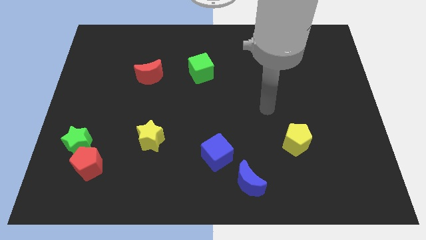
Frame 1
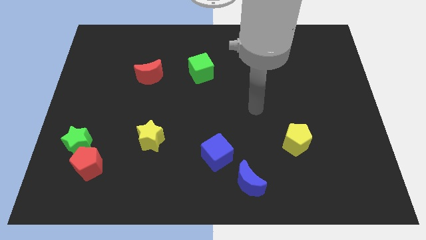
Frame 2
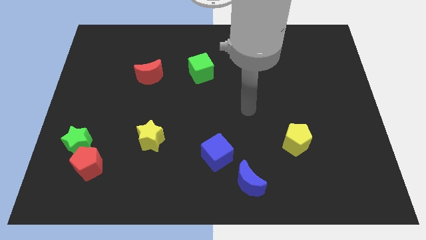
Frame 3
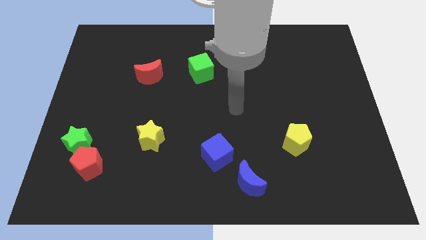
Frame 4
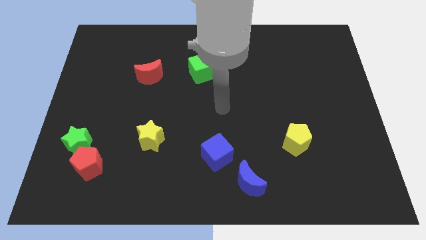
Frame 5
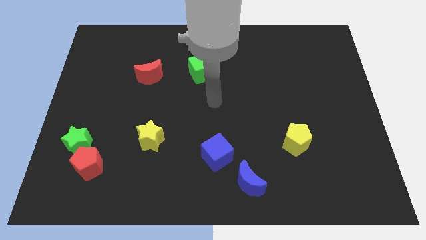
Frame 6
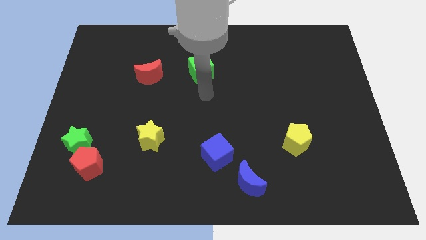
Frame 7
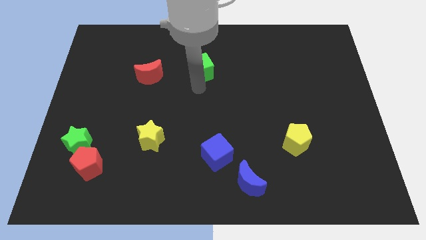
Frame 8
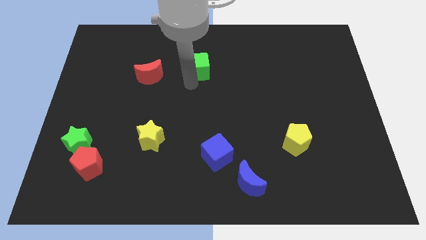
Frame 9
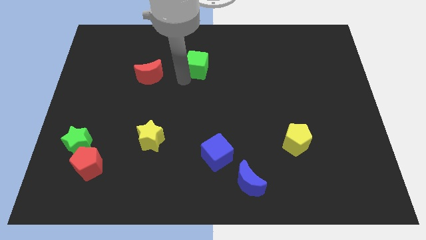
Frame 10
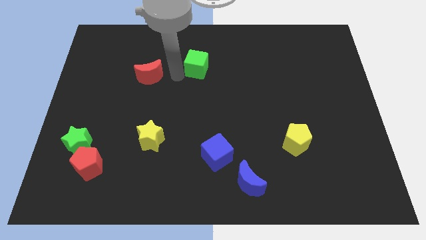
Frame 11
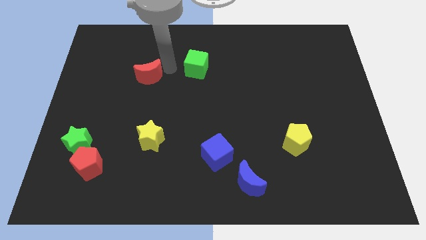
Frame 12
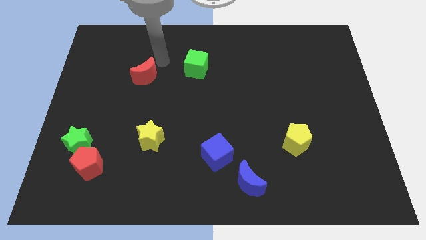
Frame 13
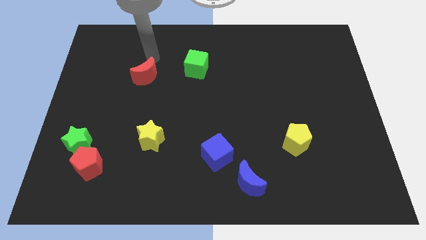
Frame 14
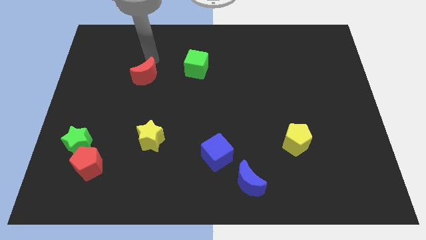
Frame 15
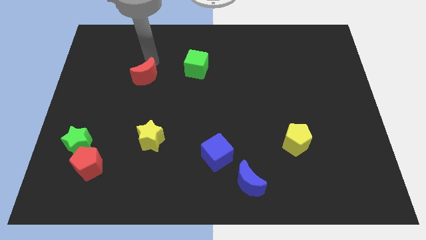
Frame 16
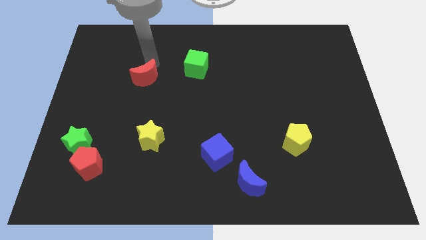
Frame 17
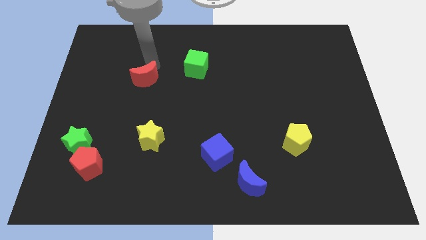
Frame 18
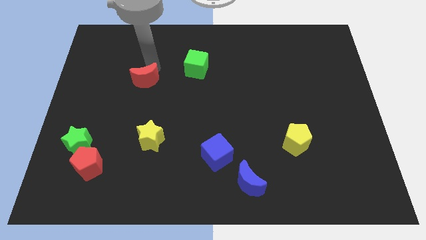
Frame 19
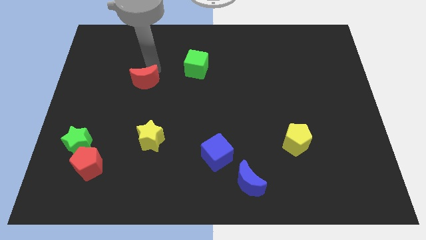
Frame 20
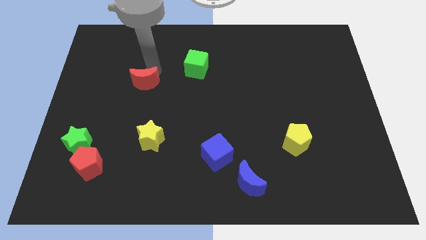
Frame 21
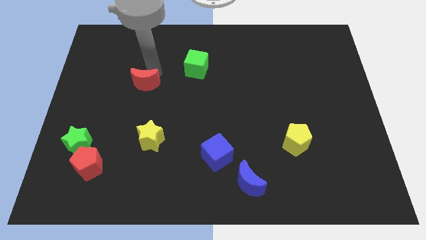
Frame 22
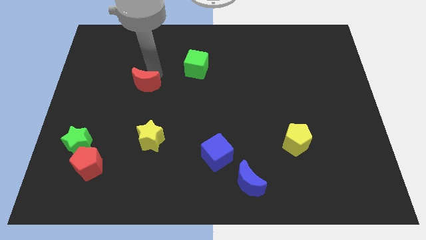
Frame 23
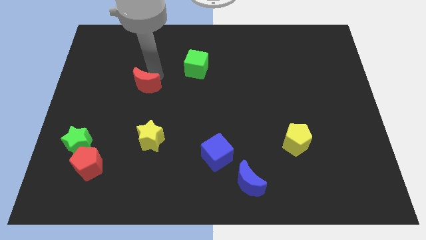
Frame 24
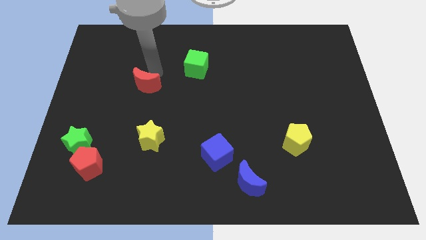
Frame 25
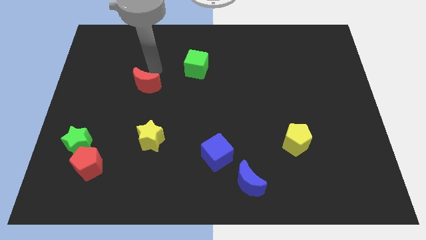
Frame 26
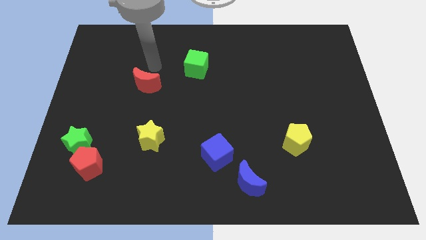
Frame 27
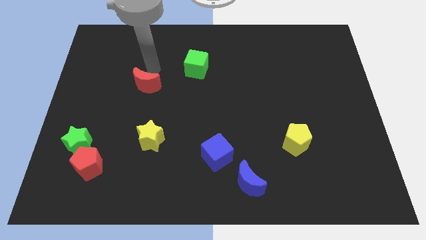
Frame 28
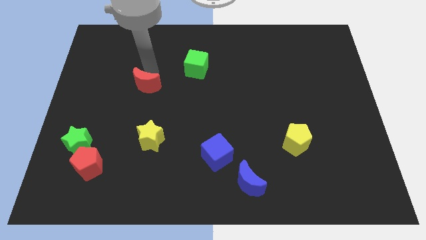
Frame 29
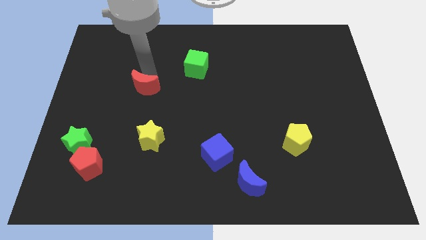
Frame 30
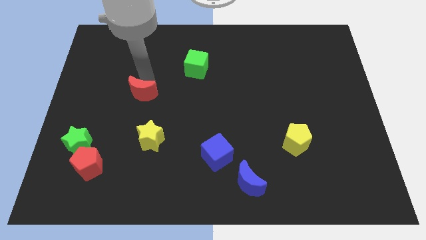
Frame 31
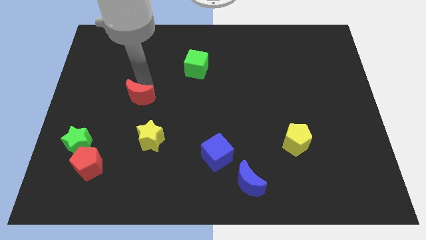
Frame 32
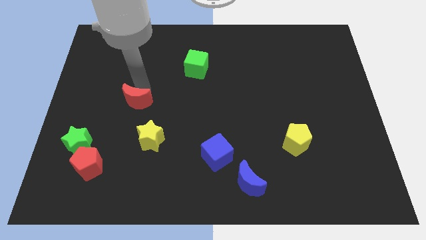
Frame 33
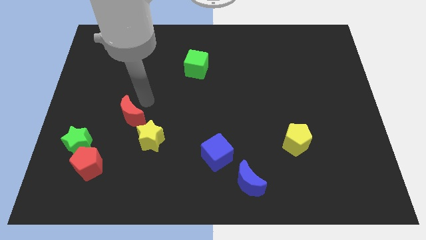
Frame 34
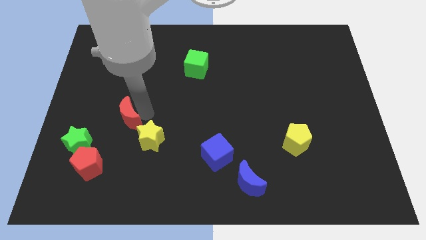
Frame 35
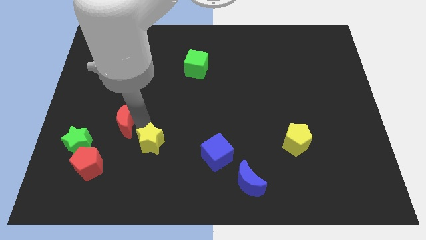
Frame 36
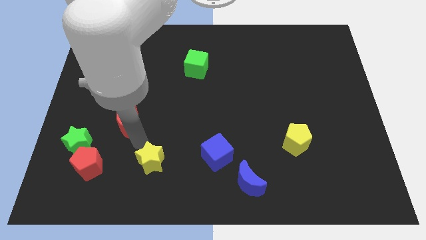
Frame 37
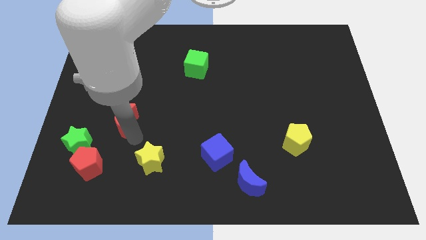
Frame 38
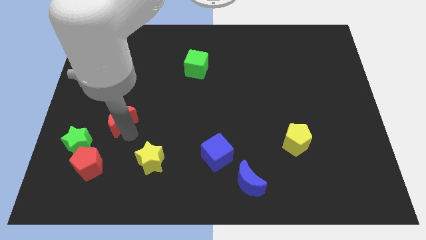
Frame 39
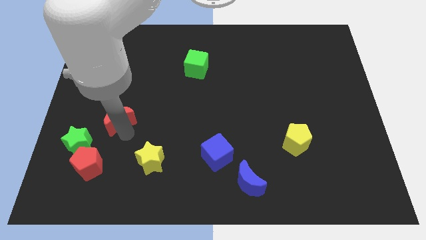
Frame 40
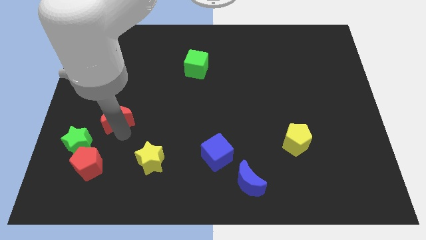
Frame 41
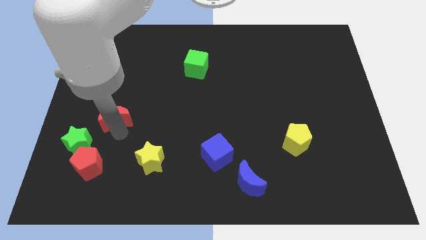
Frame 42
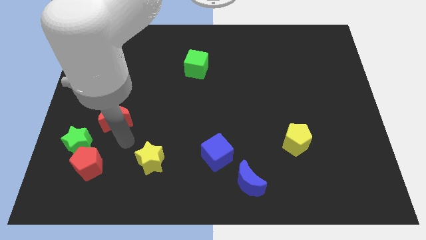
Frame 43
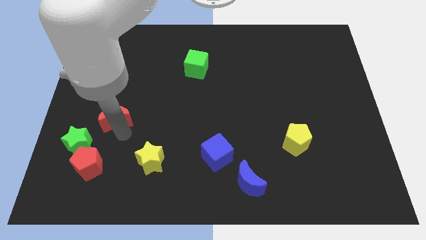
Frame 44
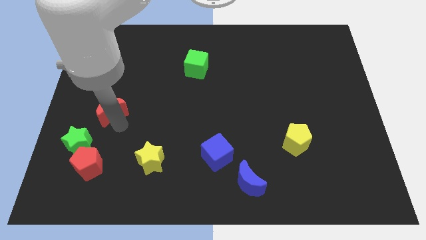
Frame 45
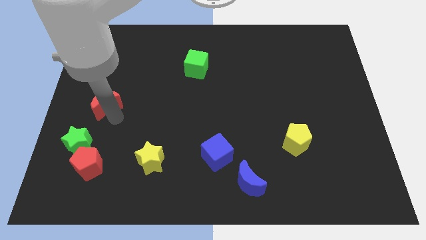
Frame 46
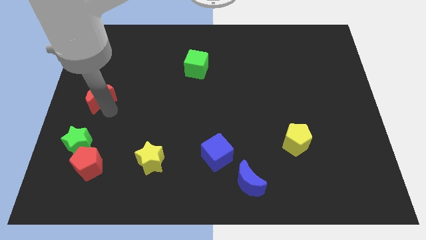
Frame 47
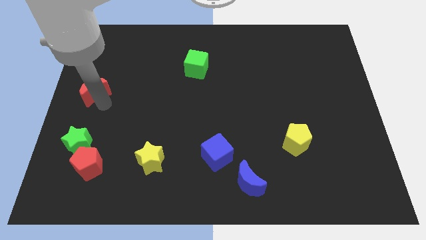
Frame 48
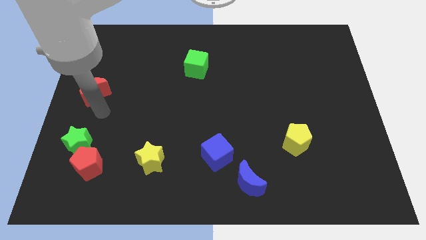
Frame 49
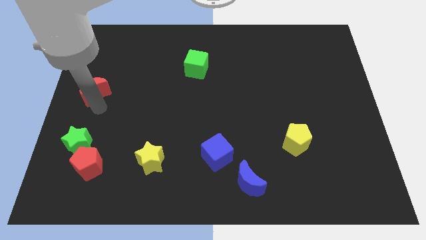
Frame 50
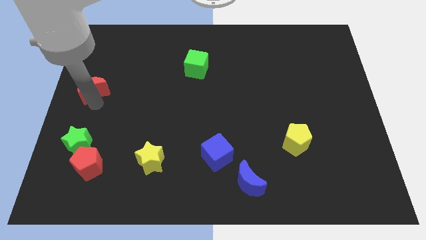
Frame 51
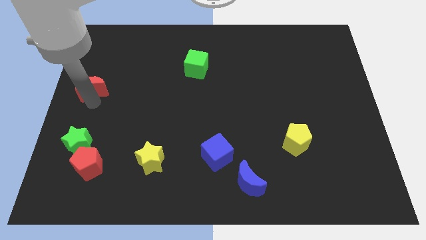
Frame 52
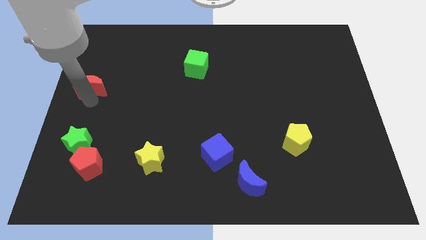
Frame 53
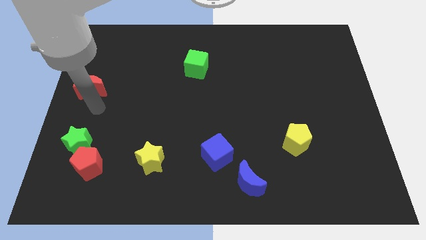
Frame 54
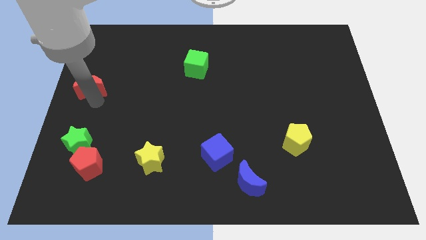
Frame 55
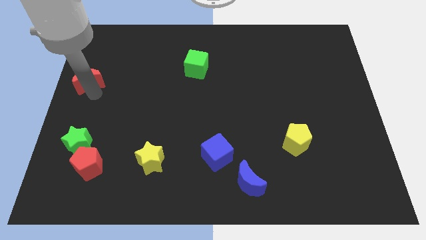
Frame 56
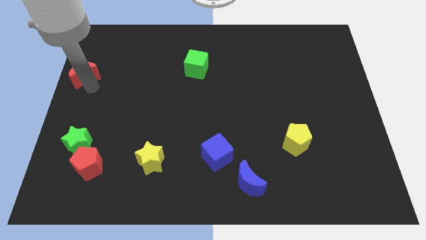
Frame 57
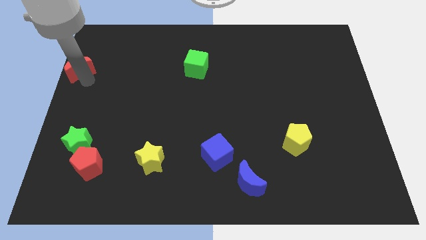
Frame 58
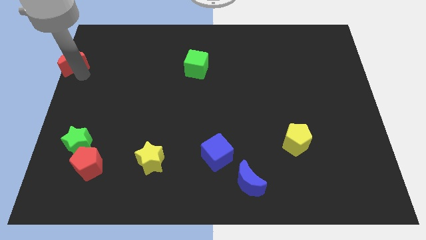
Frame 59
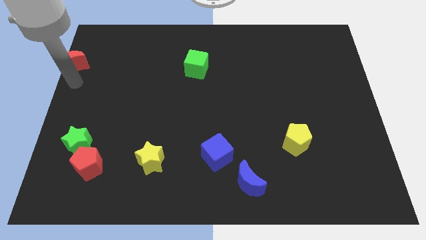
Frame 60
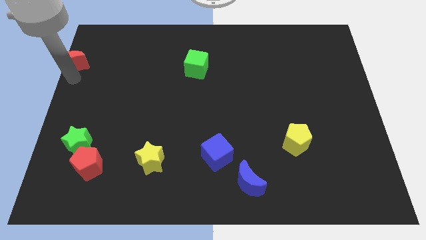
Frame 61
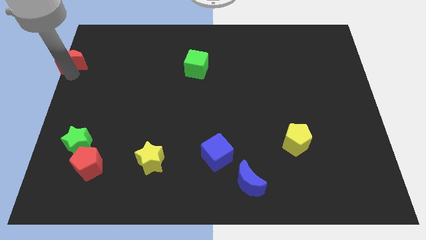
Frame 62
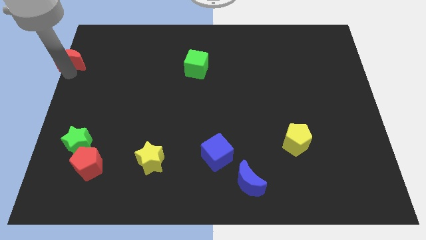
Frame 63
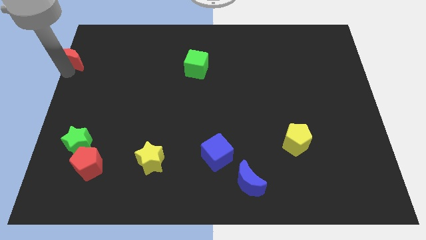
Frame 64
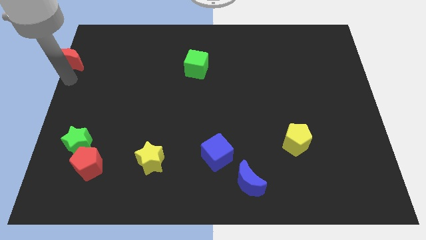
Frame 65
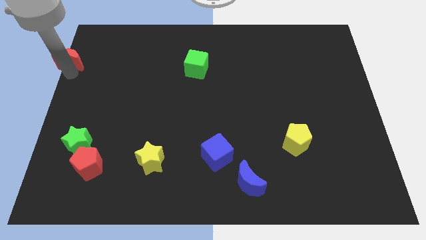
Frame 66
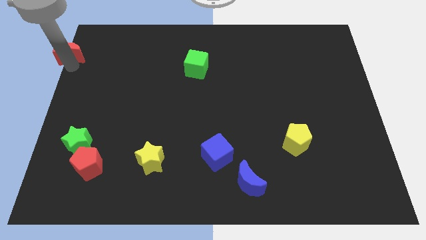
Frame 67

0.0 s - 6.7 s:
slide the red moon to the upper left corner

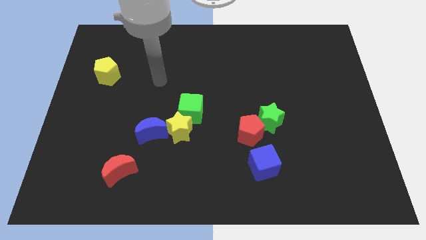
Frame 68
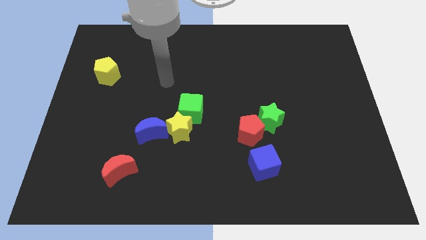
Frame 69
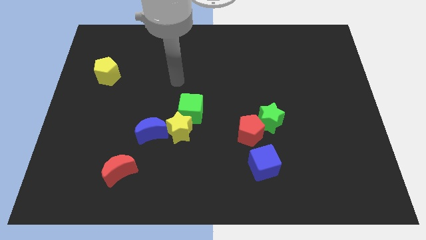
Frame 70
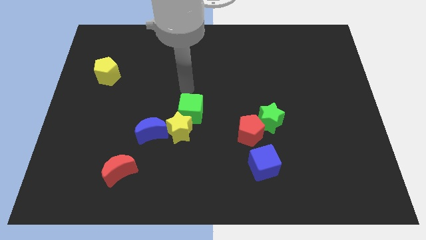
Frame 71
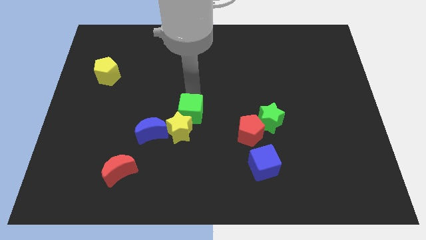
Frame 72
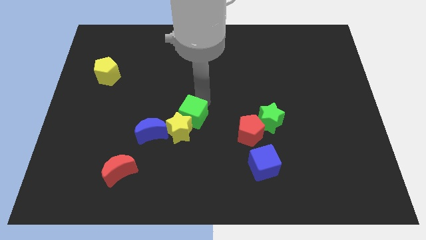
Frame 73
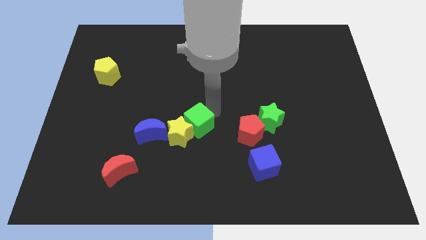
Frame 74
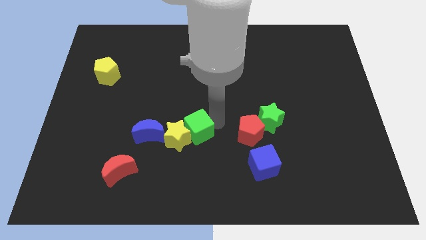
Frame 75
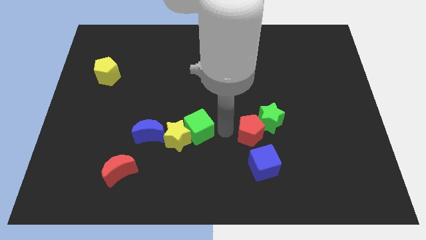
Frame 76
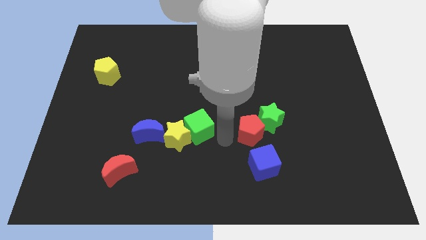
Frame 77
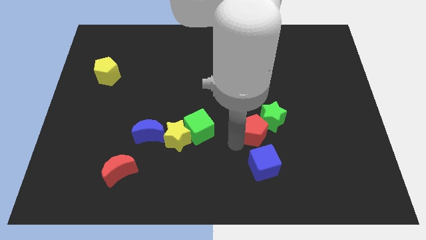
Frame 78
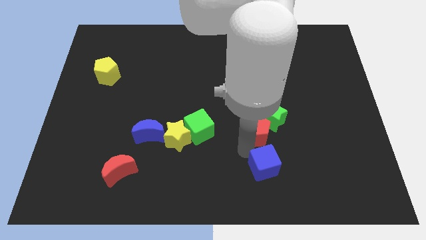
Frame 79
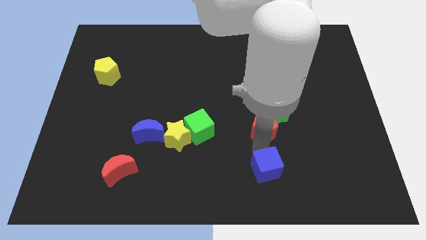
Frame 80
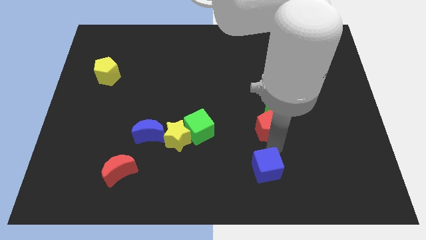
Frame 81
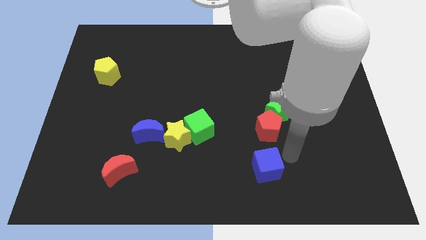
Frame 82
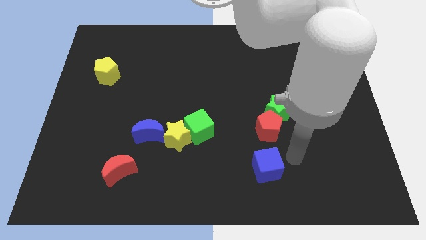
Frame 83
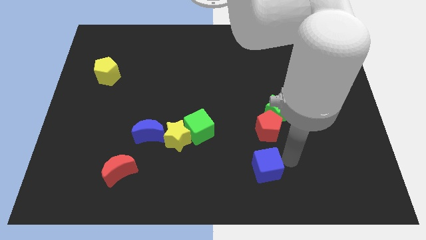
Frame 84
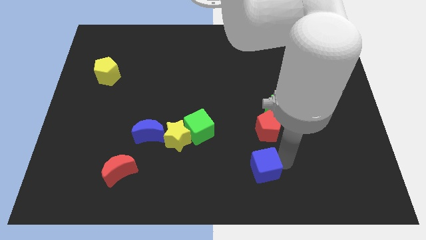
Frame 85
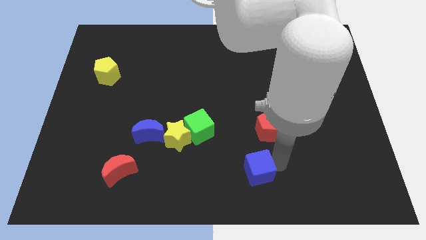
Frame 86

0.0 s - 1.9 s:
push the blue cube to the bottom side
